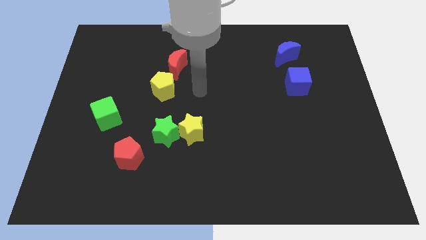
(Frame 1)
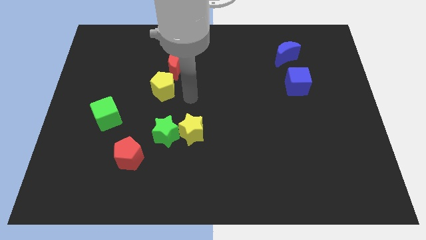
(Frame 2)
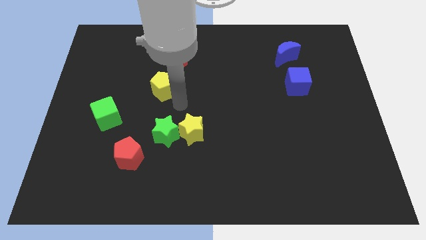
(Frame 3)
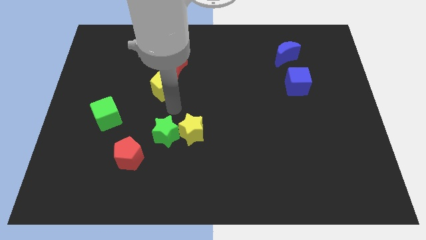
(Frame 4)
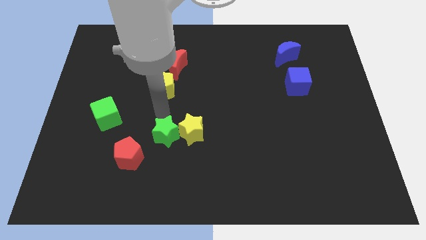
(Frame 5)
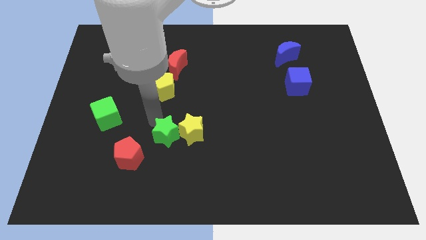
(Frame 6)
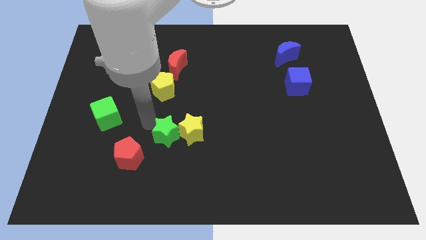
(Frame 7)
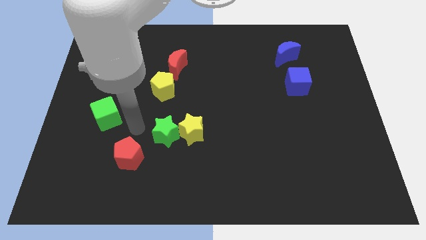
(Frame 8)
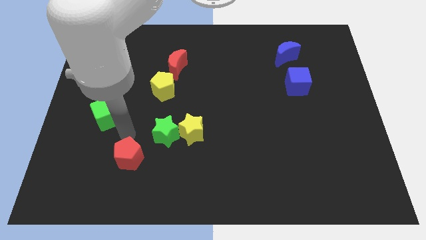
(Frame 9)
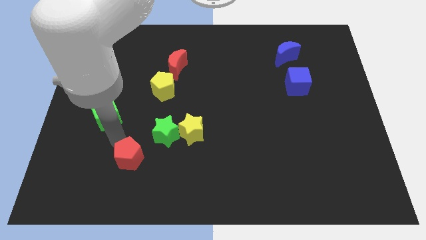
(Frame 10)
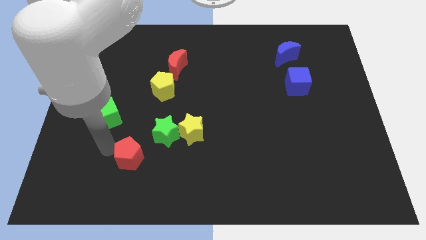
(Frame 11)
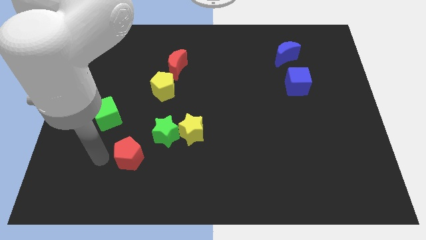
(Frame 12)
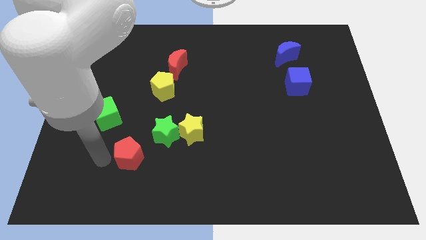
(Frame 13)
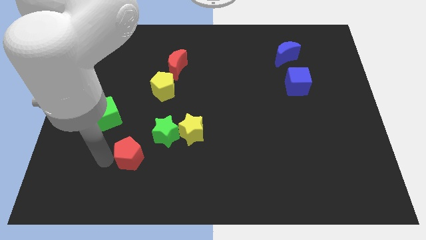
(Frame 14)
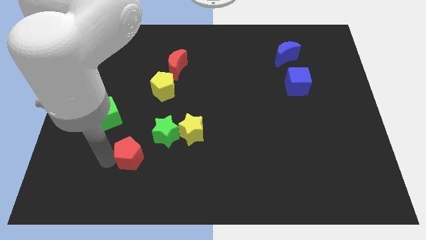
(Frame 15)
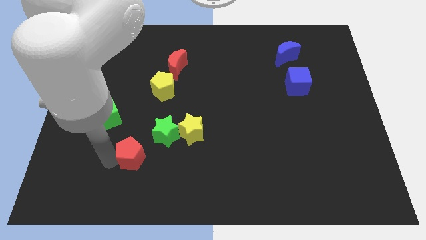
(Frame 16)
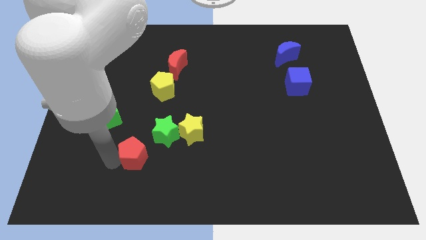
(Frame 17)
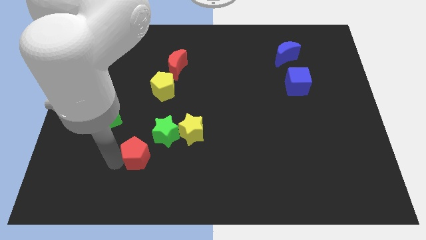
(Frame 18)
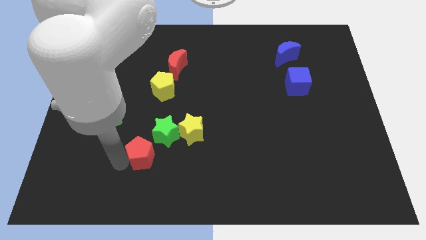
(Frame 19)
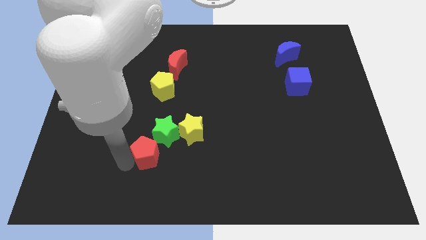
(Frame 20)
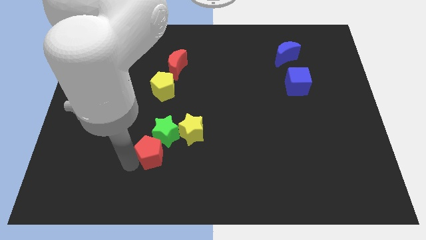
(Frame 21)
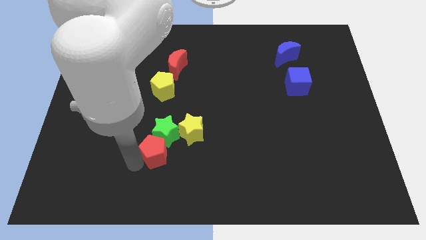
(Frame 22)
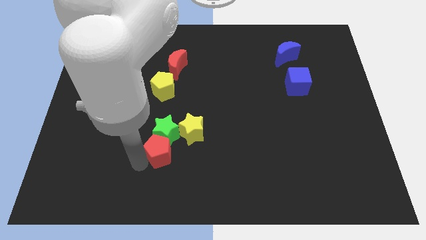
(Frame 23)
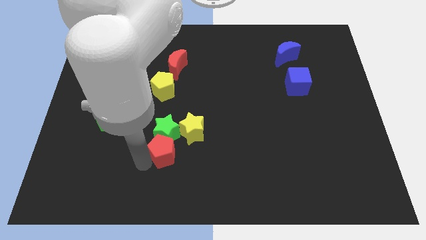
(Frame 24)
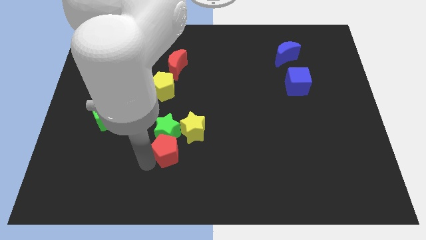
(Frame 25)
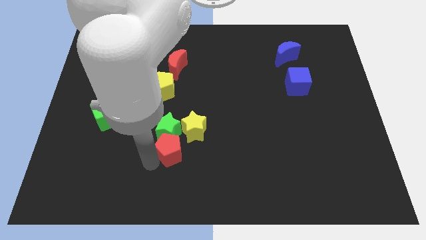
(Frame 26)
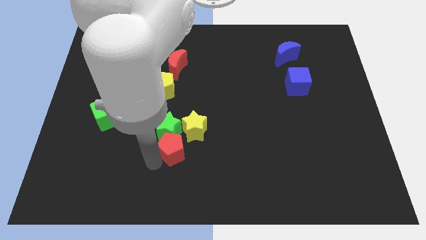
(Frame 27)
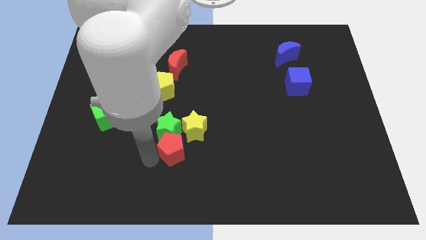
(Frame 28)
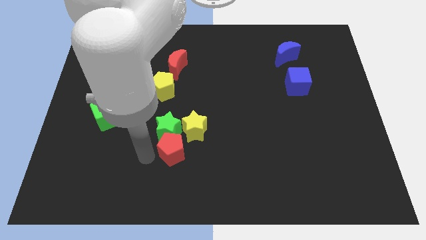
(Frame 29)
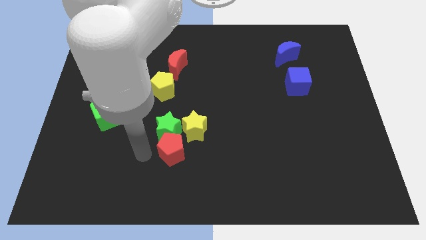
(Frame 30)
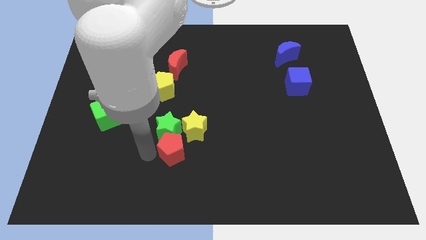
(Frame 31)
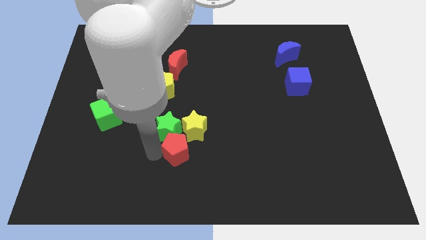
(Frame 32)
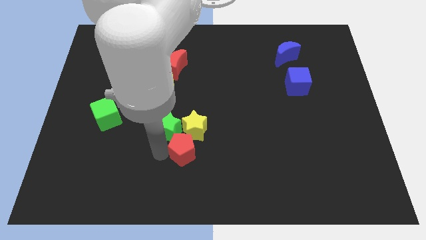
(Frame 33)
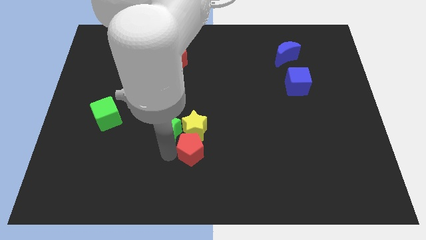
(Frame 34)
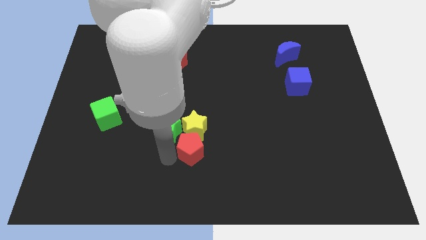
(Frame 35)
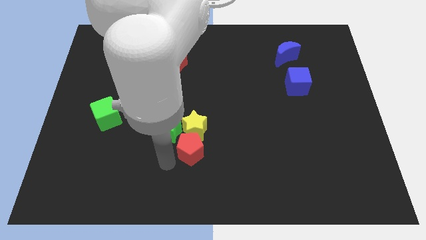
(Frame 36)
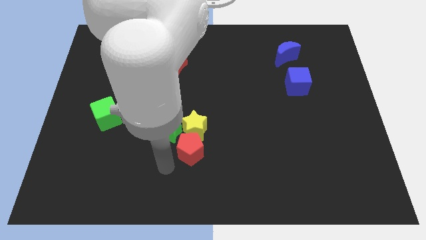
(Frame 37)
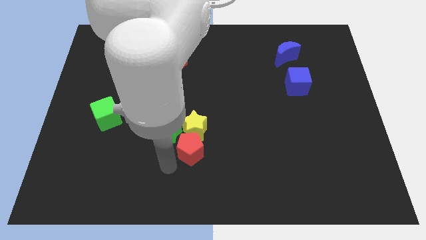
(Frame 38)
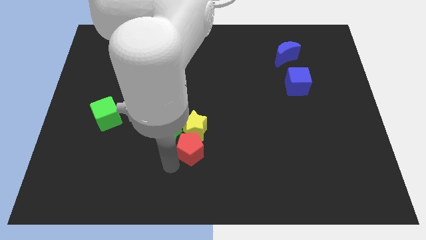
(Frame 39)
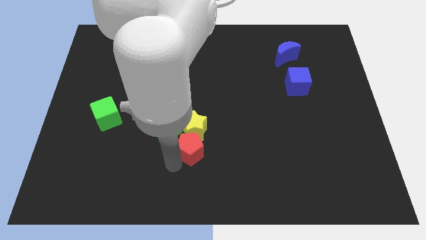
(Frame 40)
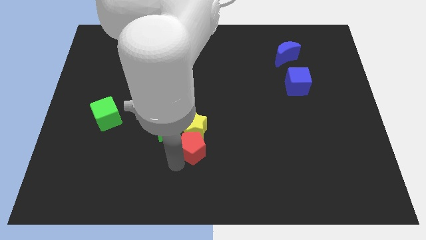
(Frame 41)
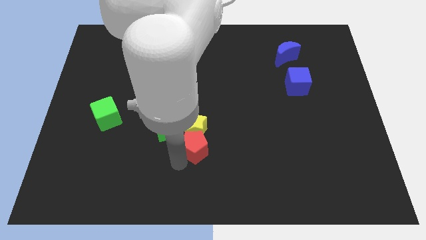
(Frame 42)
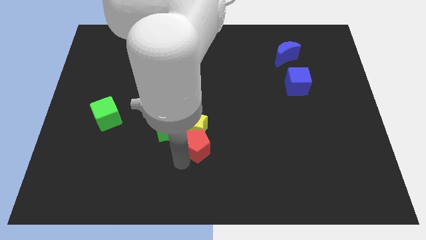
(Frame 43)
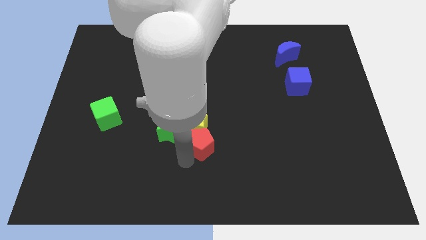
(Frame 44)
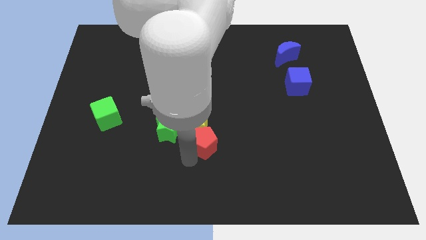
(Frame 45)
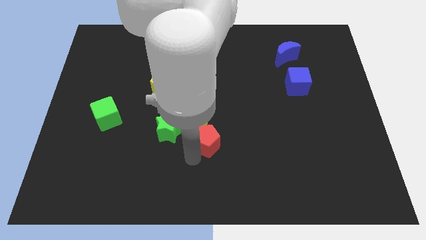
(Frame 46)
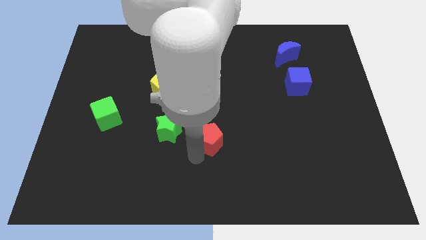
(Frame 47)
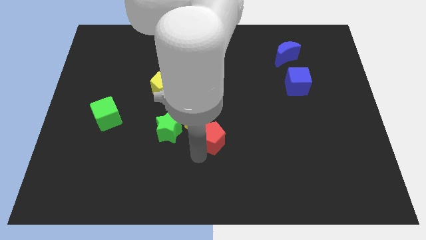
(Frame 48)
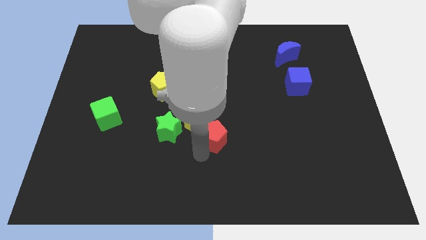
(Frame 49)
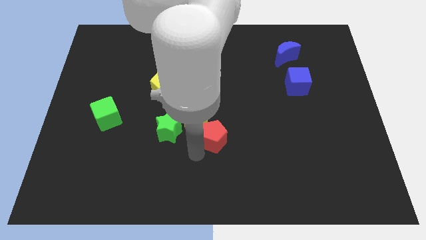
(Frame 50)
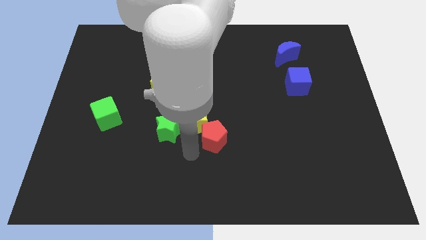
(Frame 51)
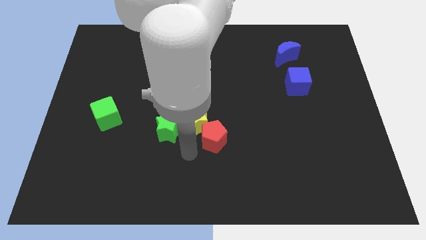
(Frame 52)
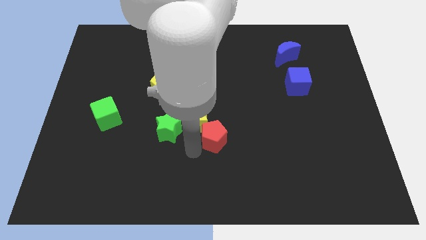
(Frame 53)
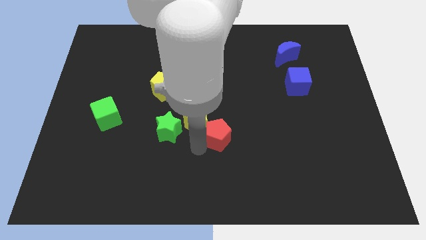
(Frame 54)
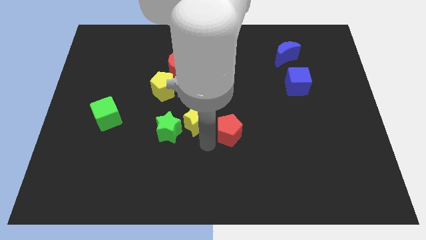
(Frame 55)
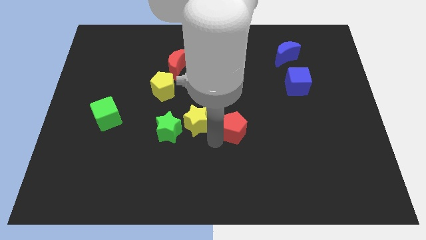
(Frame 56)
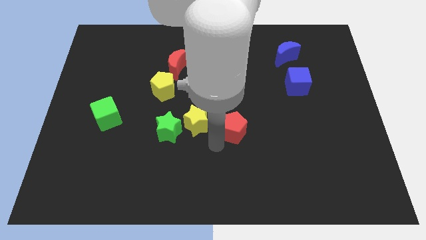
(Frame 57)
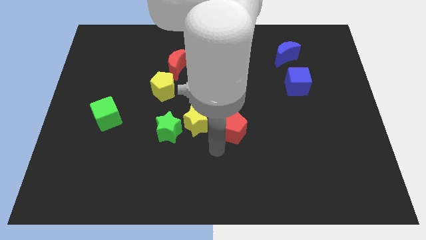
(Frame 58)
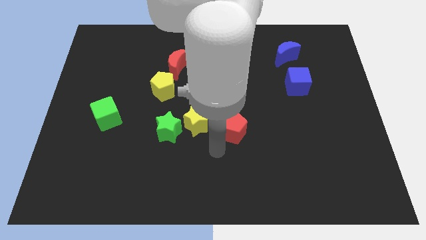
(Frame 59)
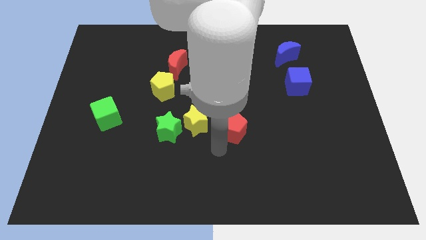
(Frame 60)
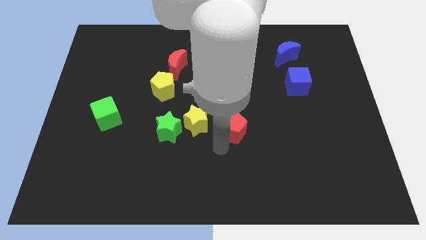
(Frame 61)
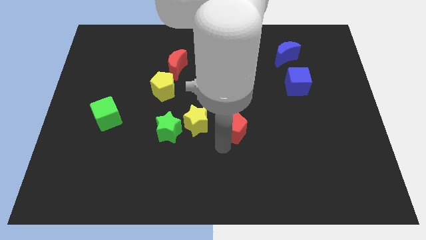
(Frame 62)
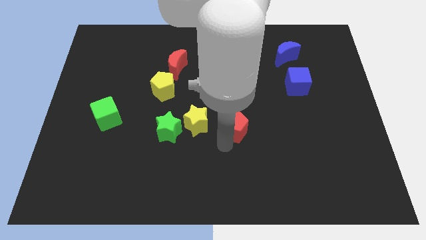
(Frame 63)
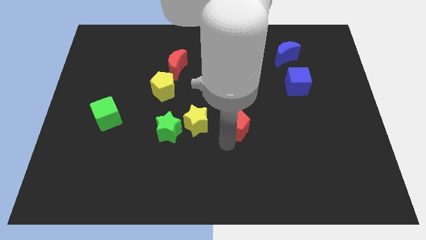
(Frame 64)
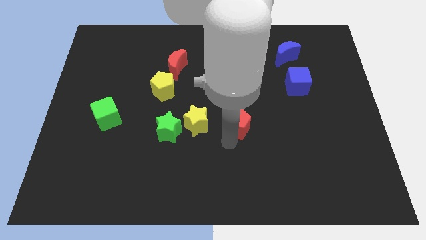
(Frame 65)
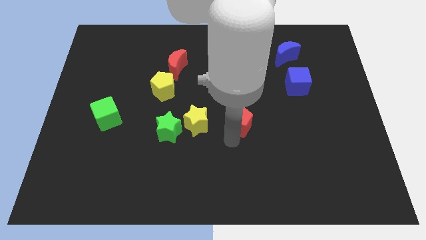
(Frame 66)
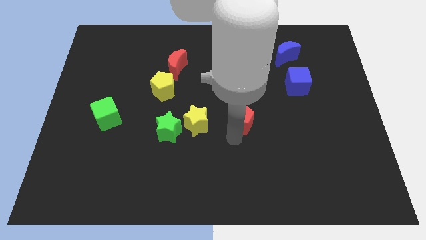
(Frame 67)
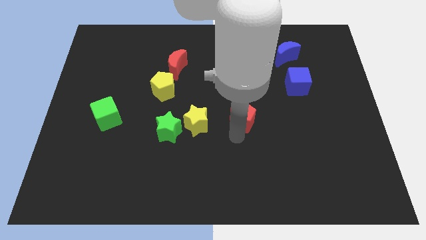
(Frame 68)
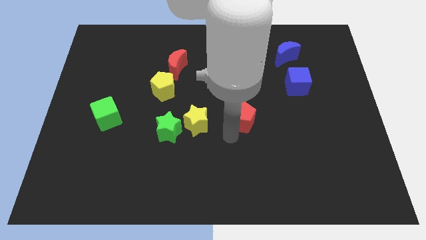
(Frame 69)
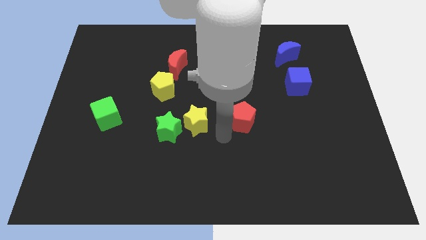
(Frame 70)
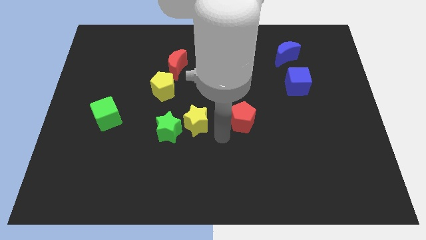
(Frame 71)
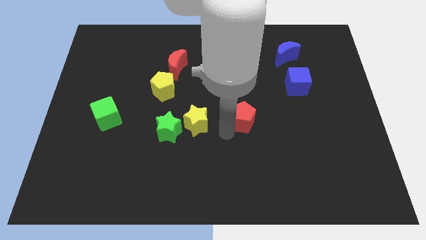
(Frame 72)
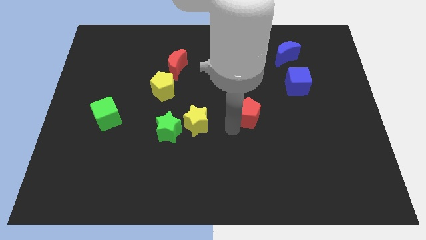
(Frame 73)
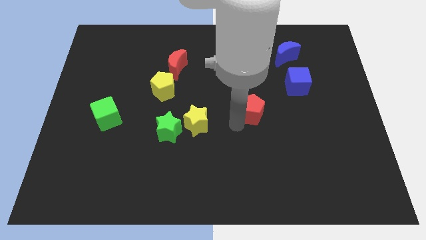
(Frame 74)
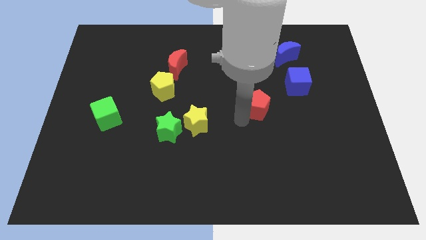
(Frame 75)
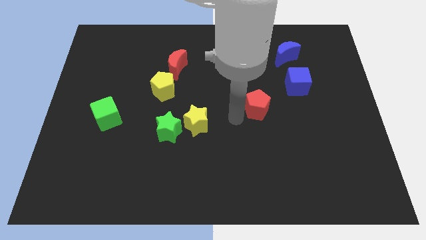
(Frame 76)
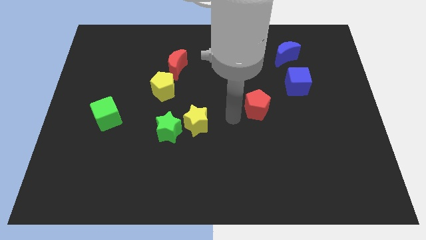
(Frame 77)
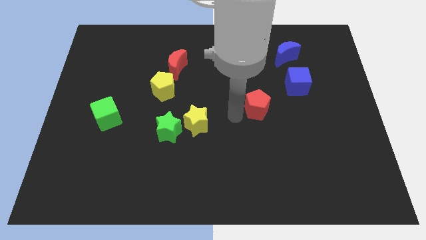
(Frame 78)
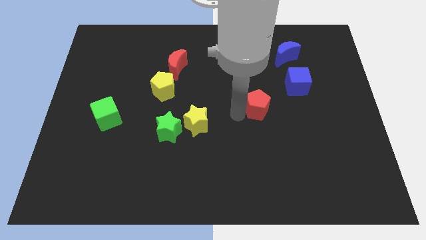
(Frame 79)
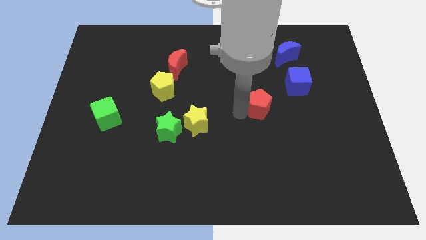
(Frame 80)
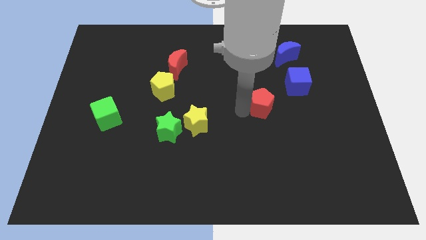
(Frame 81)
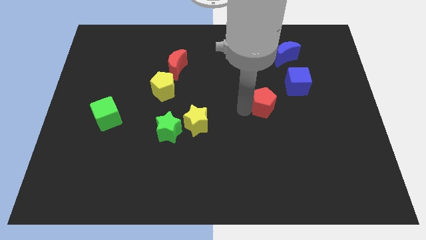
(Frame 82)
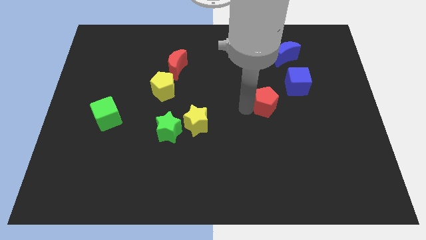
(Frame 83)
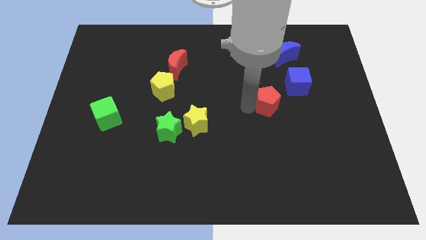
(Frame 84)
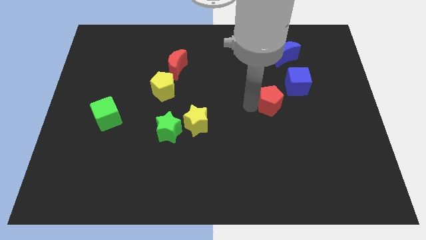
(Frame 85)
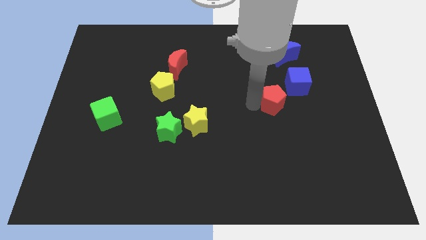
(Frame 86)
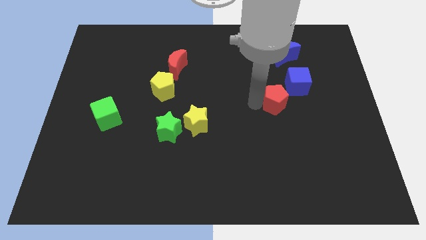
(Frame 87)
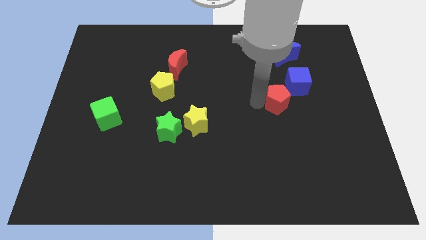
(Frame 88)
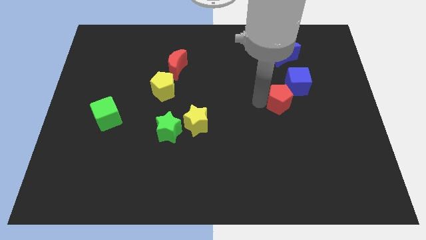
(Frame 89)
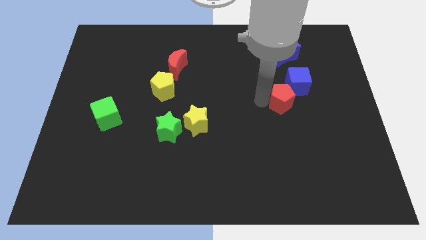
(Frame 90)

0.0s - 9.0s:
move the red pentagon below the blue moon
